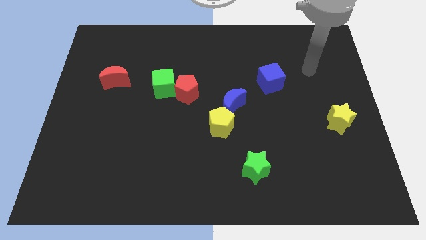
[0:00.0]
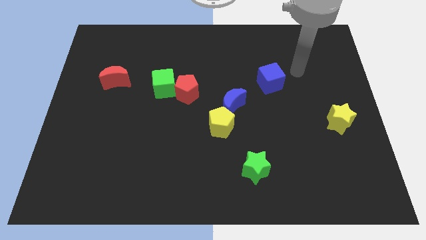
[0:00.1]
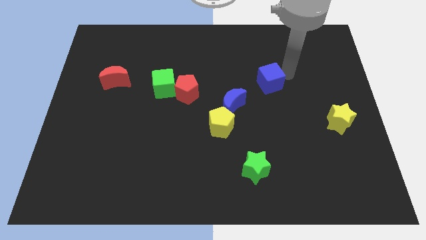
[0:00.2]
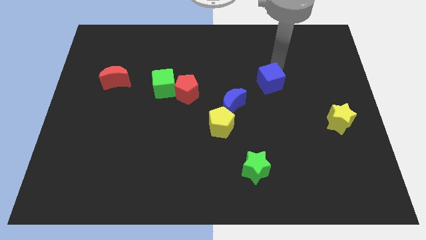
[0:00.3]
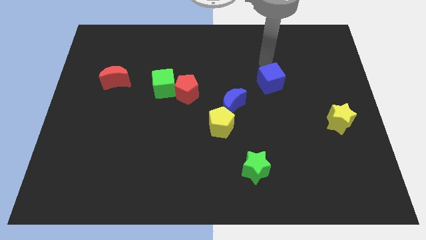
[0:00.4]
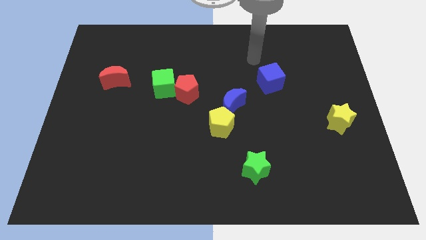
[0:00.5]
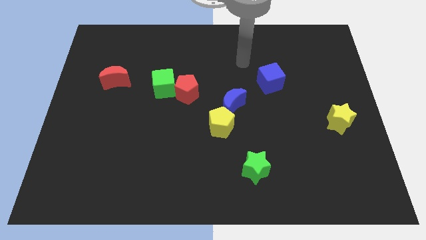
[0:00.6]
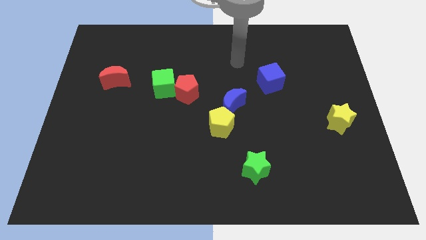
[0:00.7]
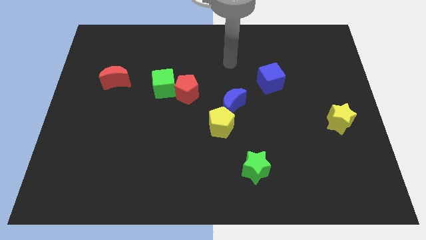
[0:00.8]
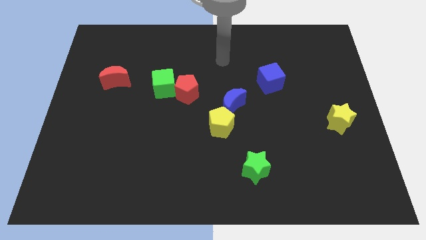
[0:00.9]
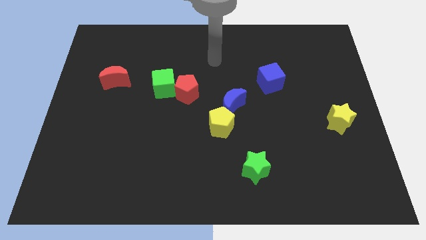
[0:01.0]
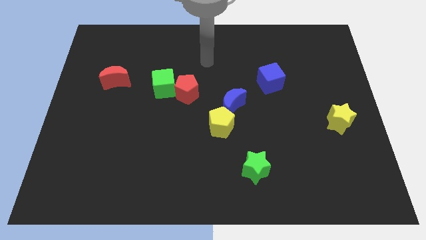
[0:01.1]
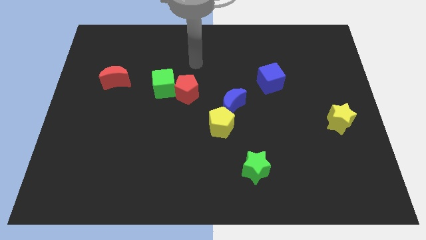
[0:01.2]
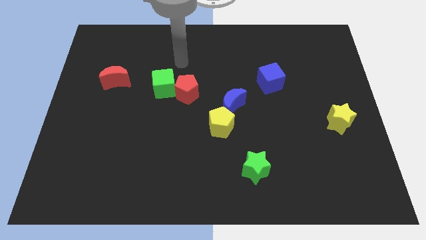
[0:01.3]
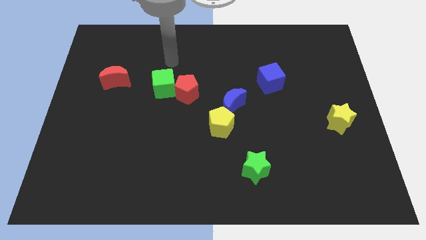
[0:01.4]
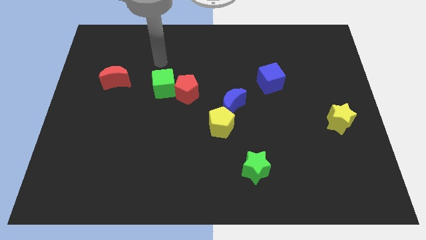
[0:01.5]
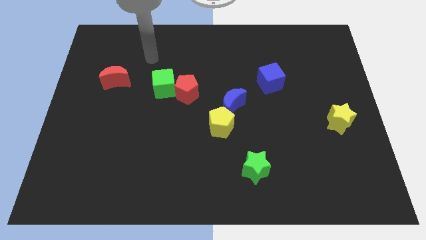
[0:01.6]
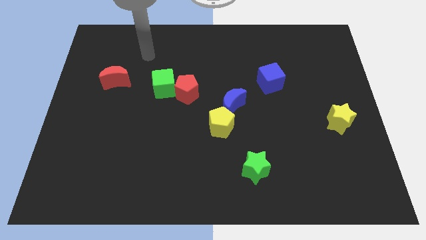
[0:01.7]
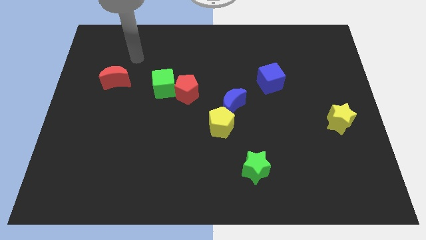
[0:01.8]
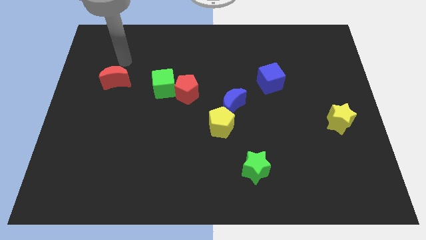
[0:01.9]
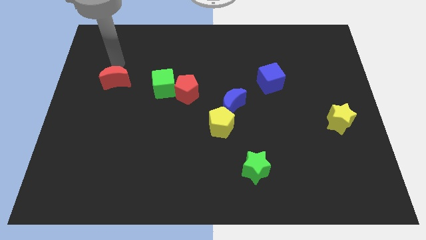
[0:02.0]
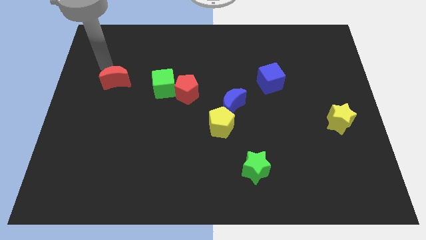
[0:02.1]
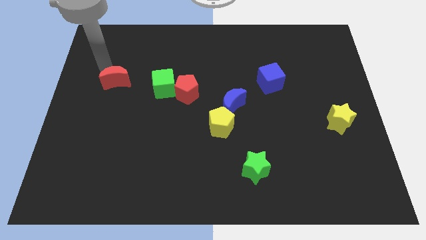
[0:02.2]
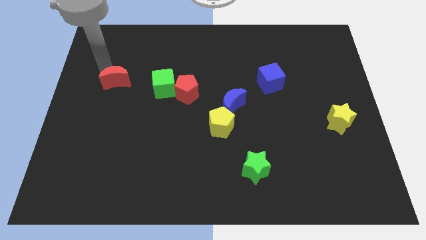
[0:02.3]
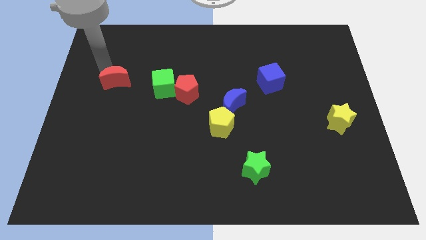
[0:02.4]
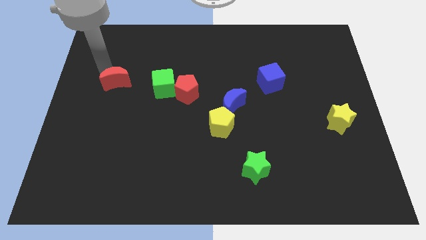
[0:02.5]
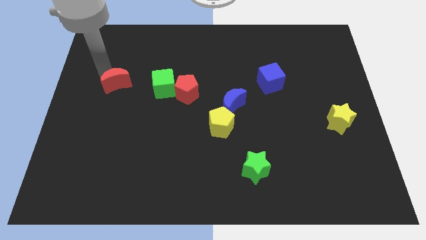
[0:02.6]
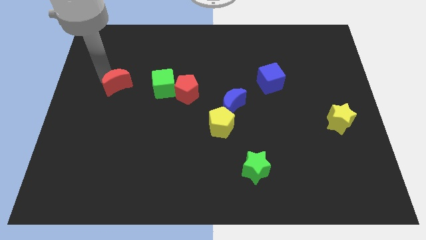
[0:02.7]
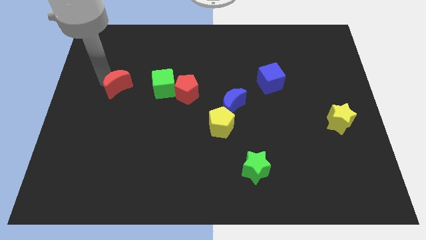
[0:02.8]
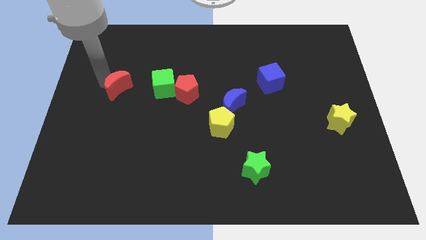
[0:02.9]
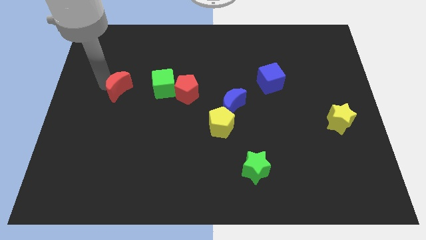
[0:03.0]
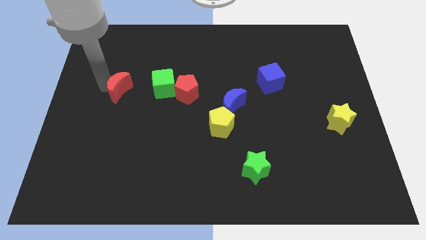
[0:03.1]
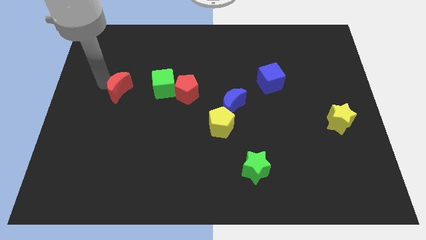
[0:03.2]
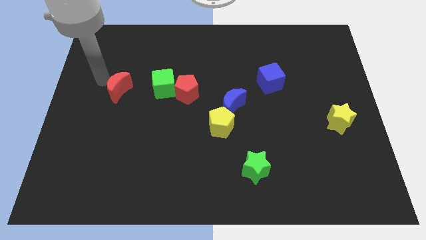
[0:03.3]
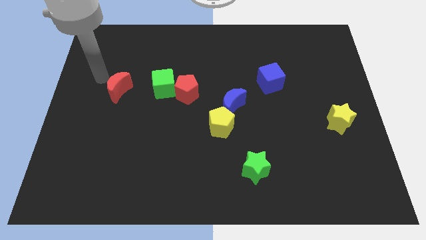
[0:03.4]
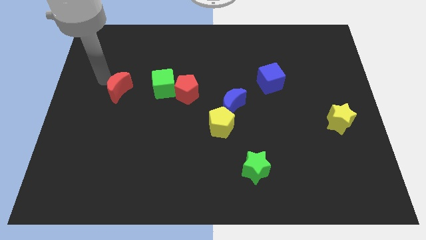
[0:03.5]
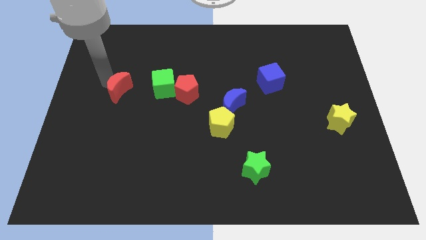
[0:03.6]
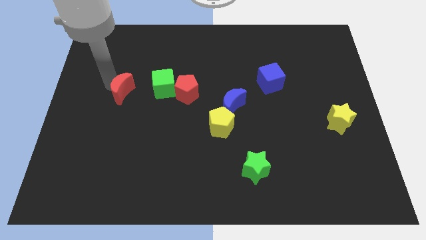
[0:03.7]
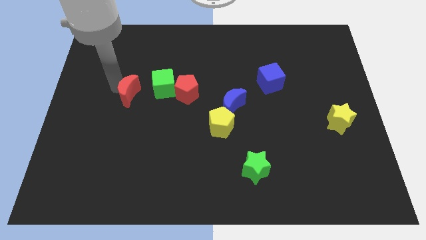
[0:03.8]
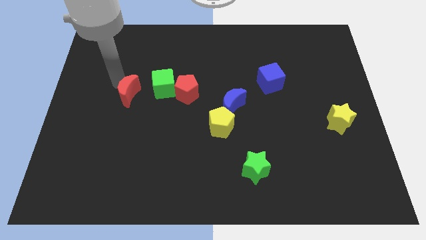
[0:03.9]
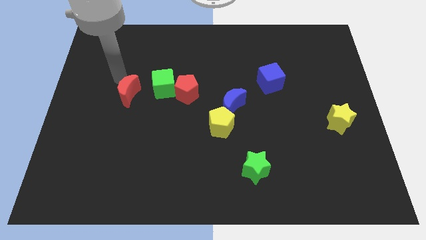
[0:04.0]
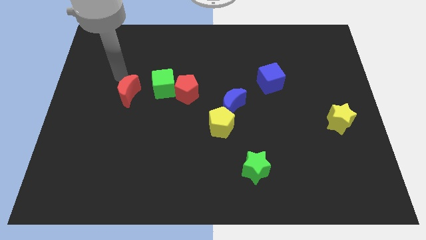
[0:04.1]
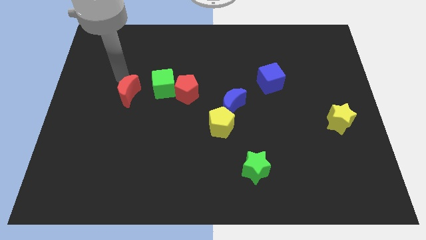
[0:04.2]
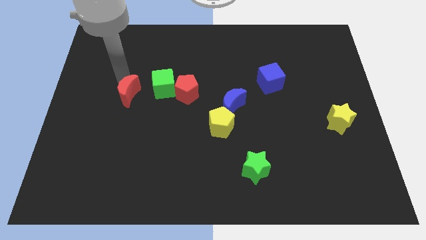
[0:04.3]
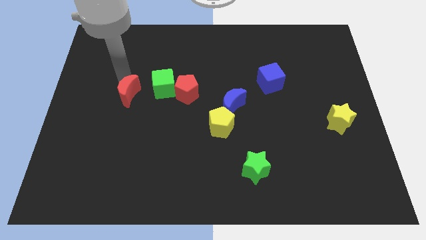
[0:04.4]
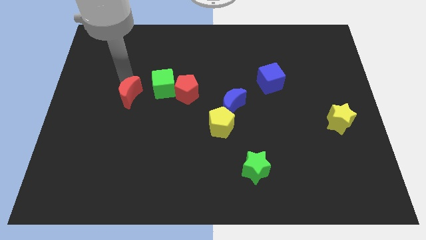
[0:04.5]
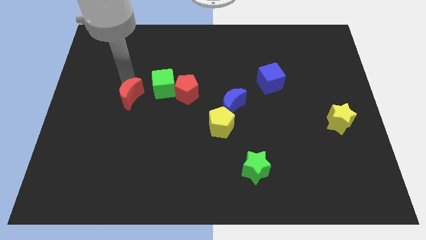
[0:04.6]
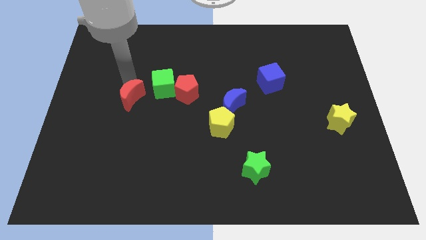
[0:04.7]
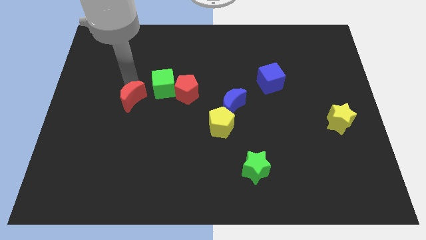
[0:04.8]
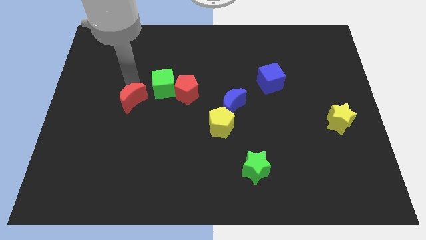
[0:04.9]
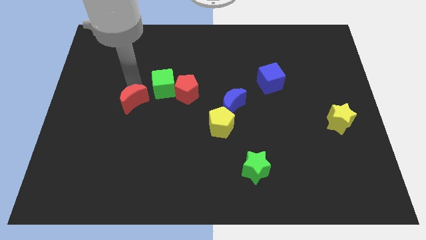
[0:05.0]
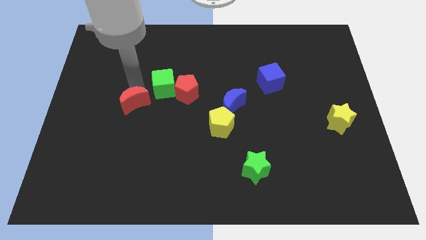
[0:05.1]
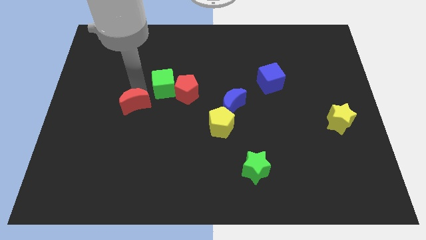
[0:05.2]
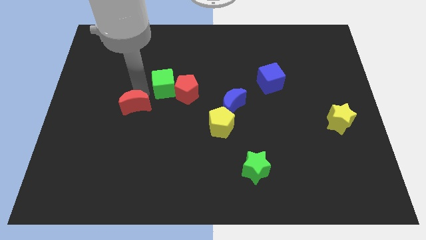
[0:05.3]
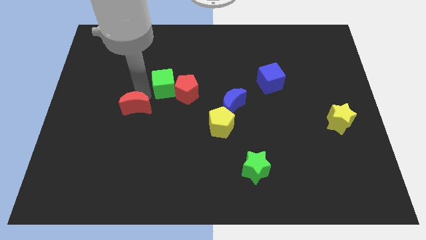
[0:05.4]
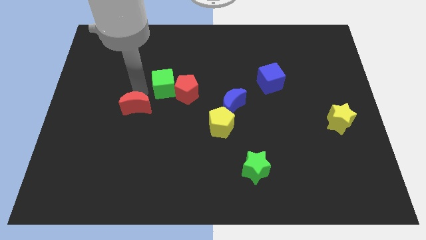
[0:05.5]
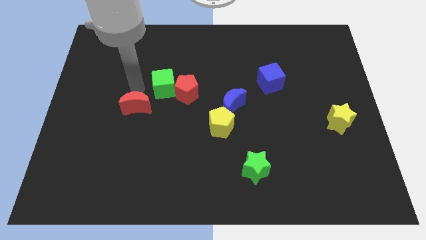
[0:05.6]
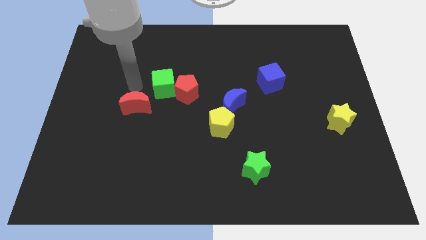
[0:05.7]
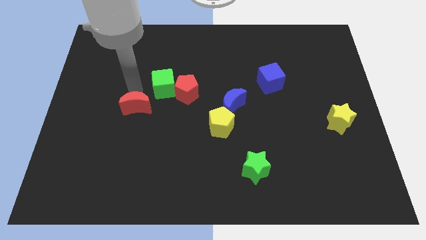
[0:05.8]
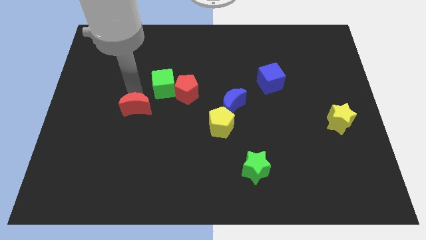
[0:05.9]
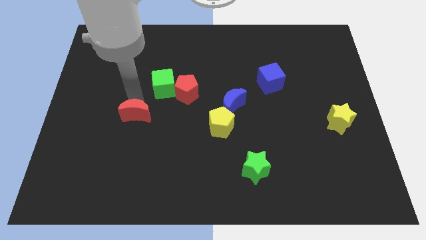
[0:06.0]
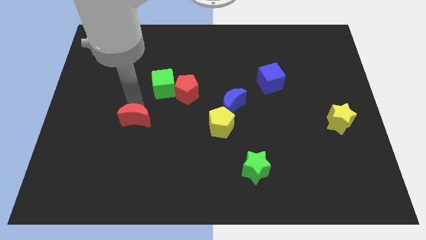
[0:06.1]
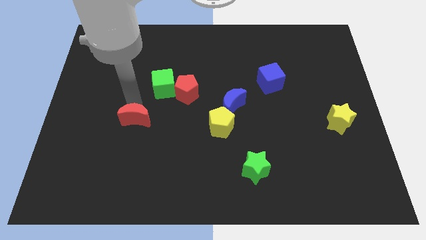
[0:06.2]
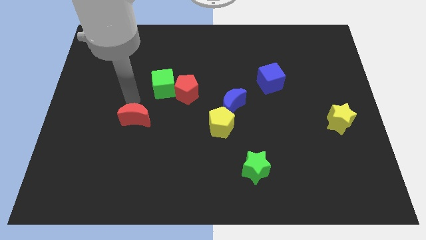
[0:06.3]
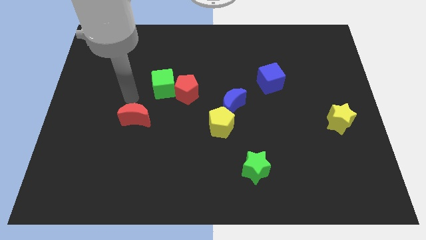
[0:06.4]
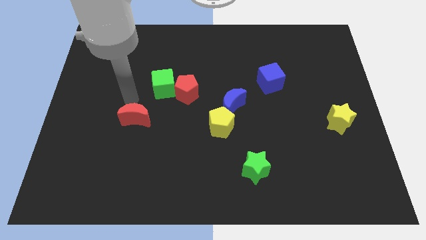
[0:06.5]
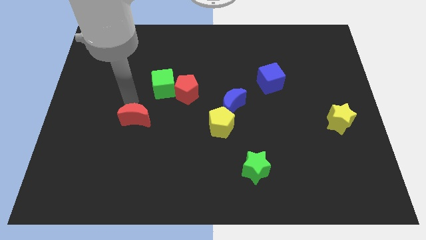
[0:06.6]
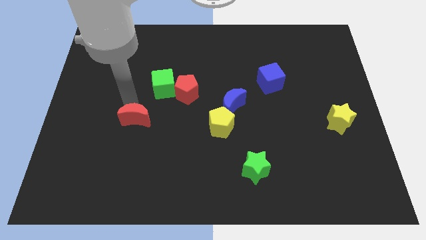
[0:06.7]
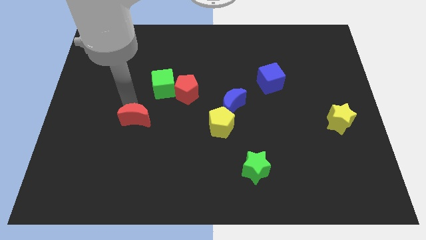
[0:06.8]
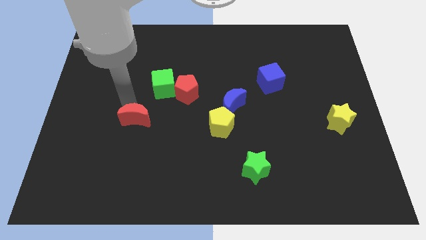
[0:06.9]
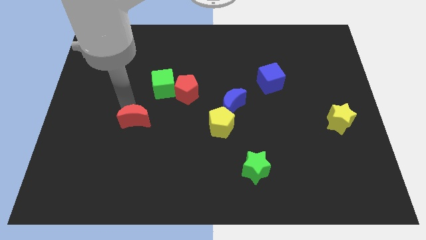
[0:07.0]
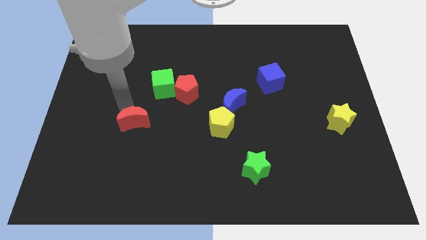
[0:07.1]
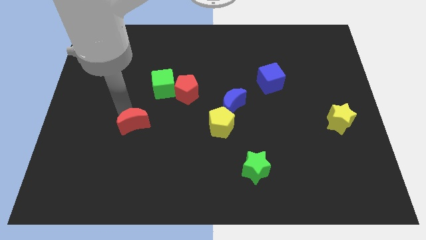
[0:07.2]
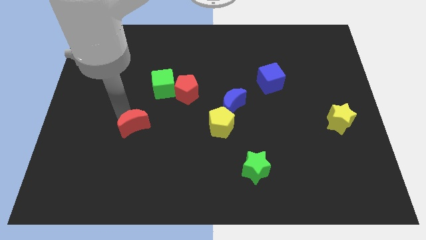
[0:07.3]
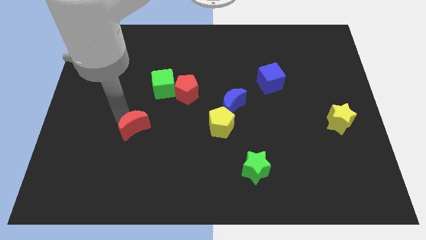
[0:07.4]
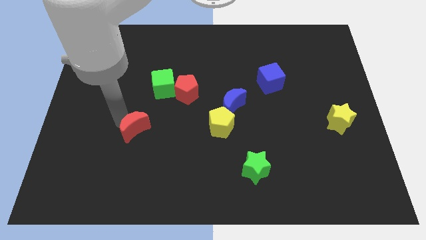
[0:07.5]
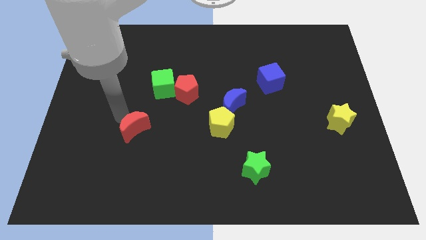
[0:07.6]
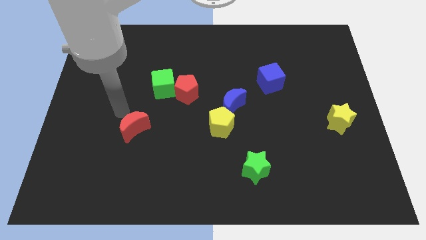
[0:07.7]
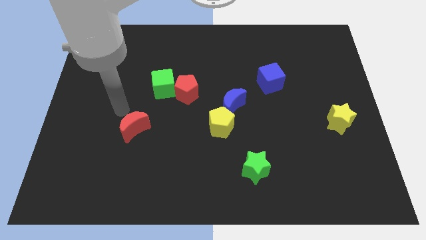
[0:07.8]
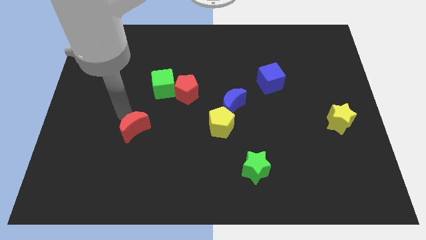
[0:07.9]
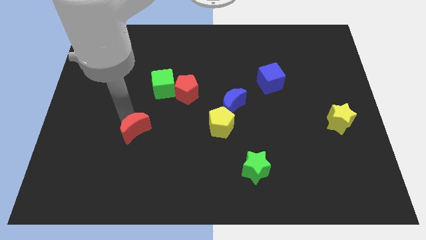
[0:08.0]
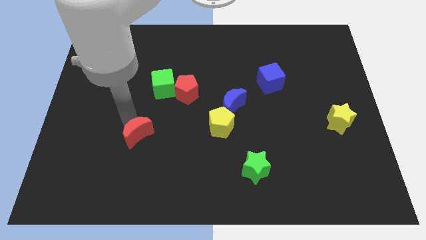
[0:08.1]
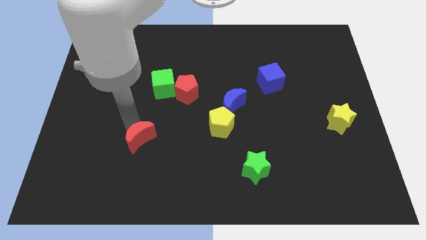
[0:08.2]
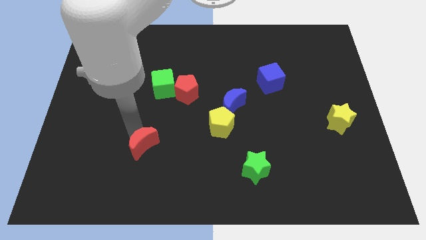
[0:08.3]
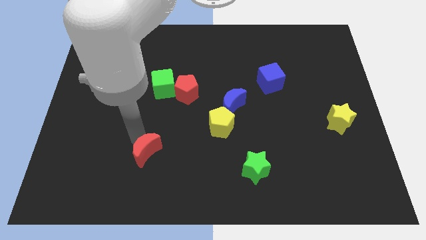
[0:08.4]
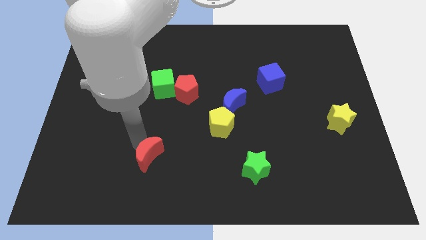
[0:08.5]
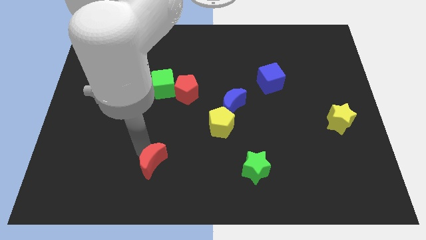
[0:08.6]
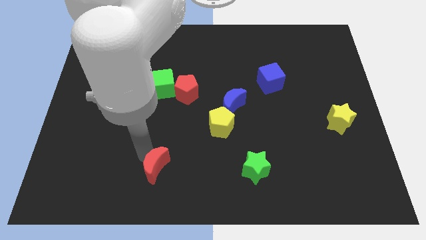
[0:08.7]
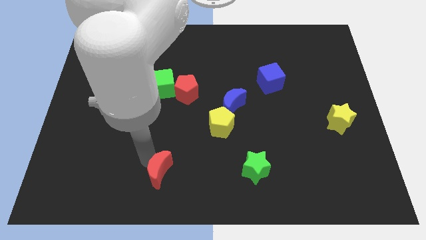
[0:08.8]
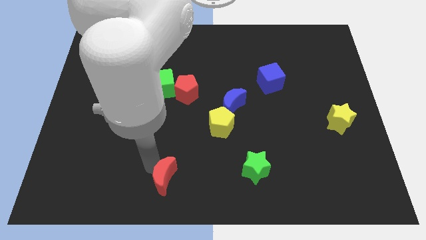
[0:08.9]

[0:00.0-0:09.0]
push the red moon to the bottom
